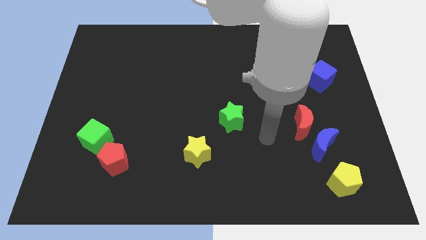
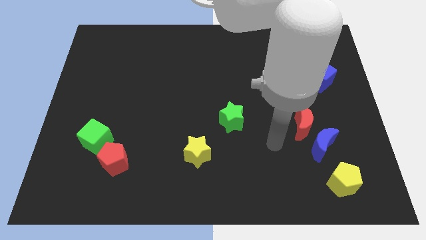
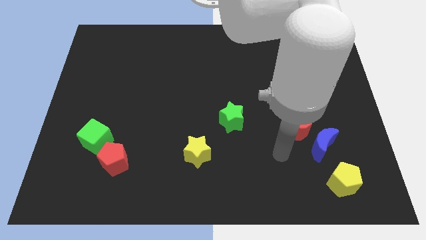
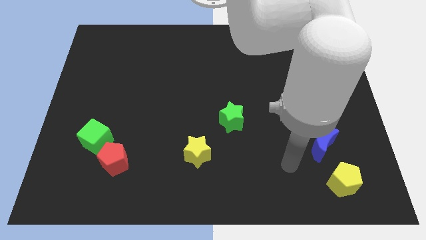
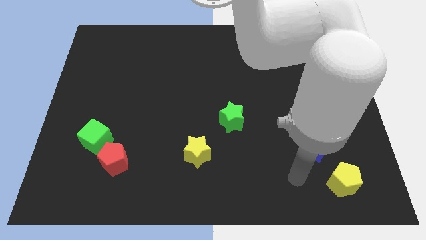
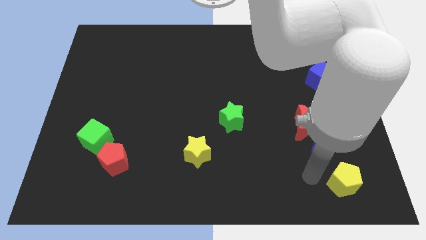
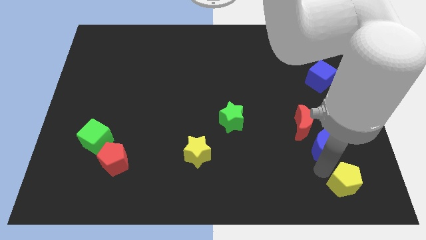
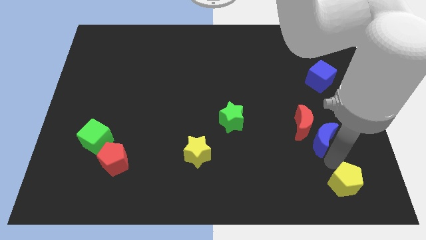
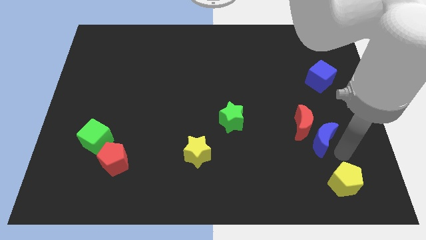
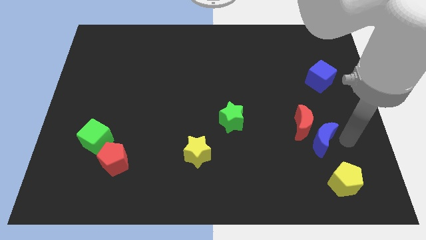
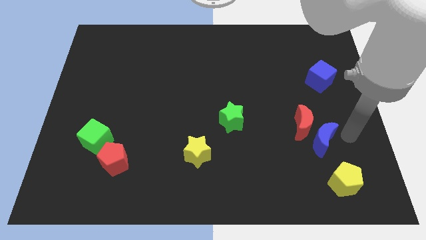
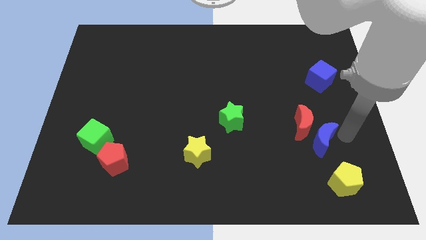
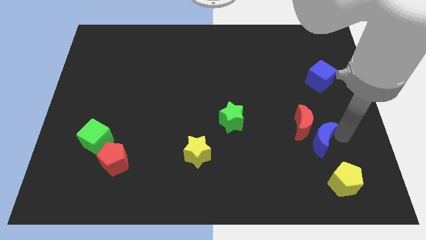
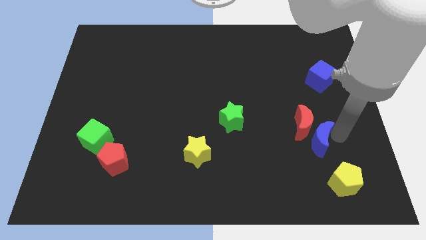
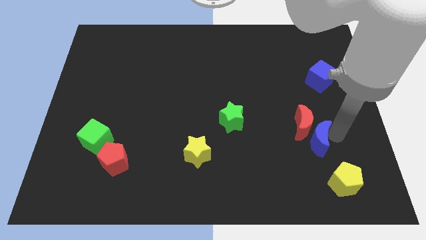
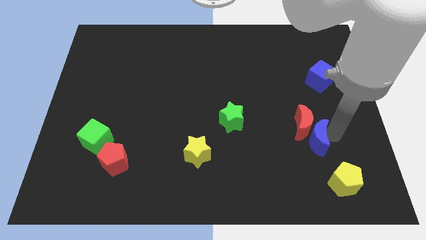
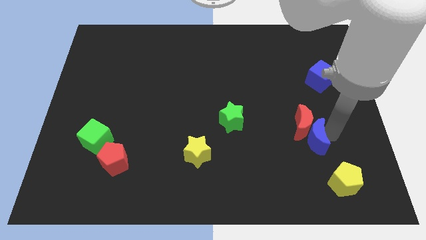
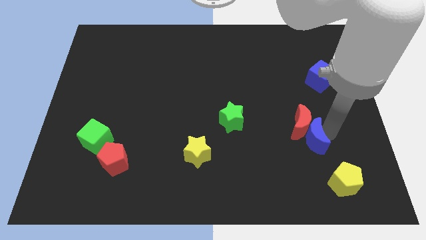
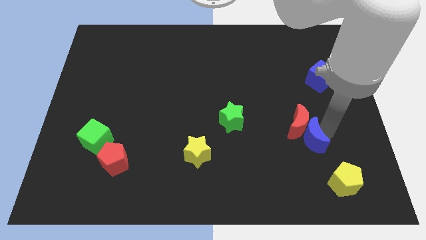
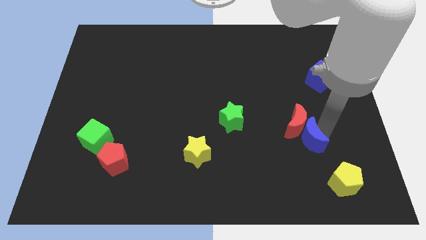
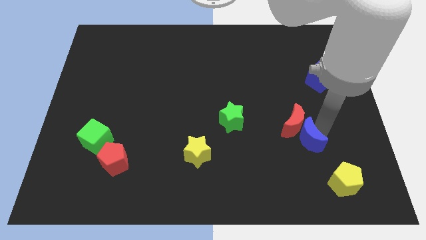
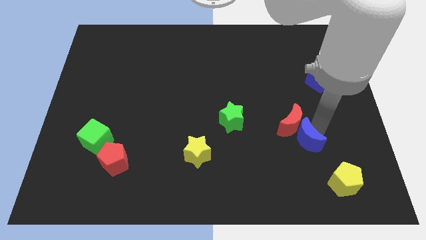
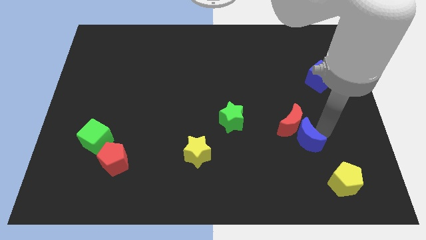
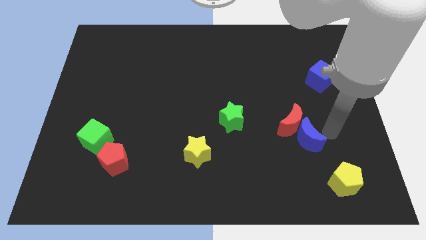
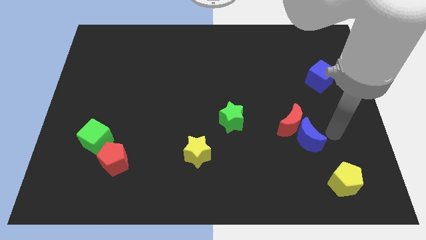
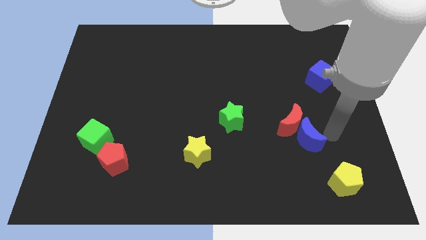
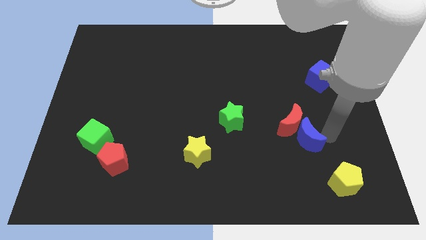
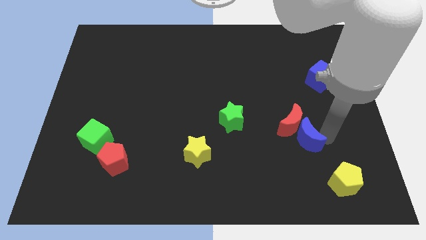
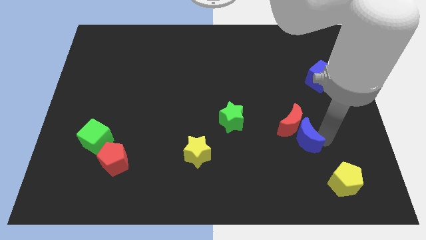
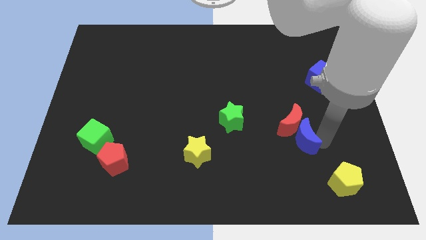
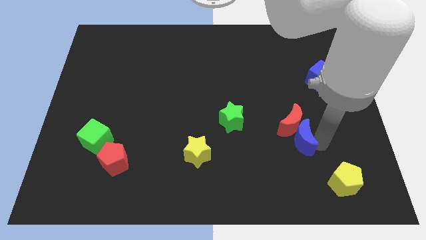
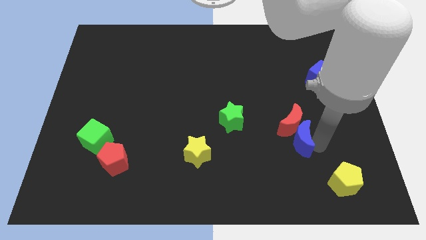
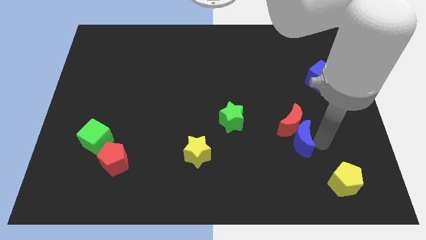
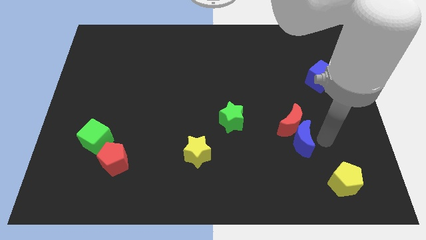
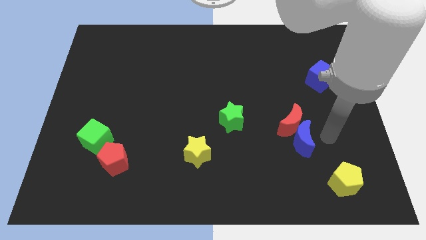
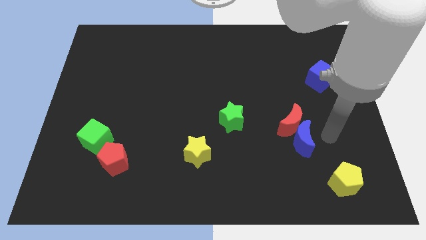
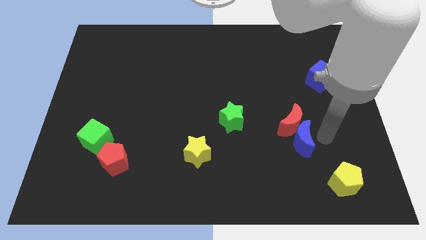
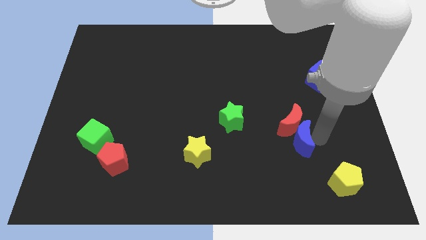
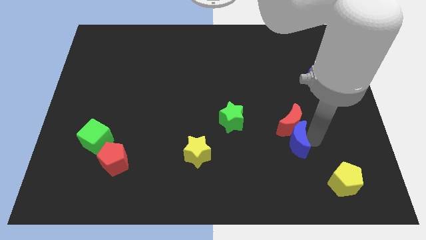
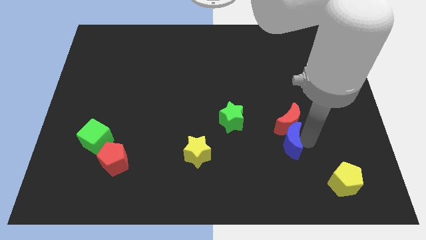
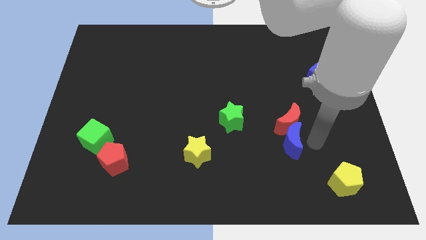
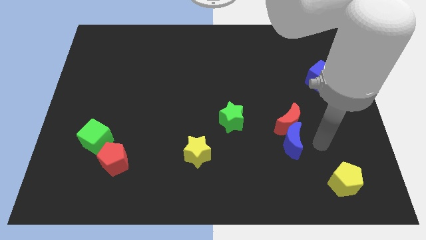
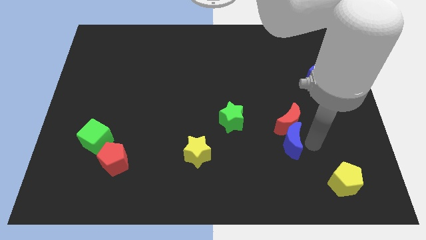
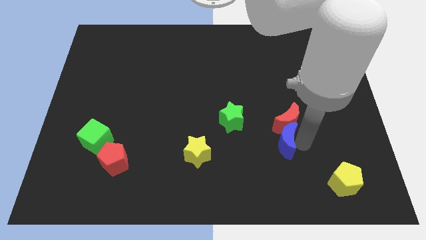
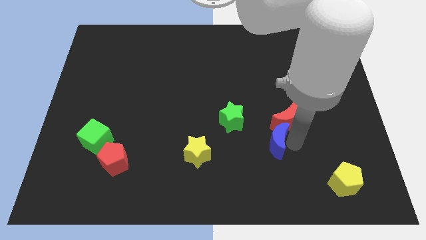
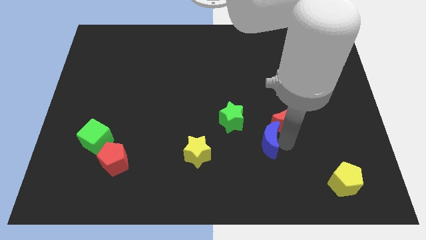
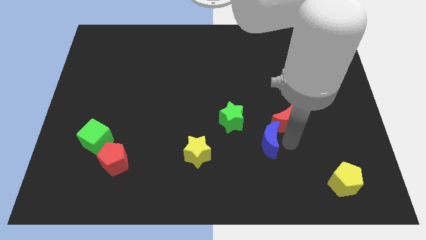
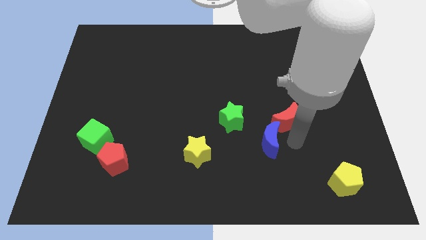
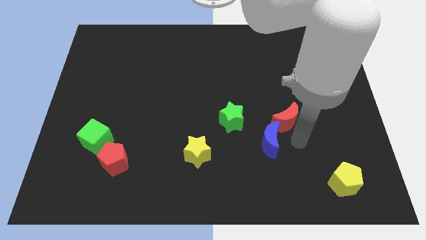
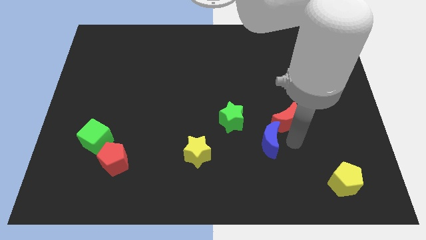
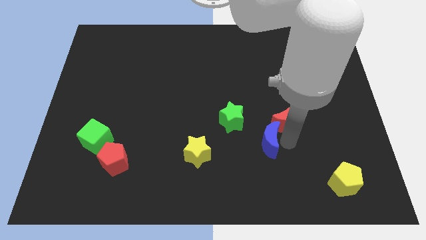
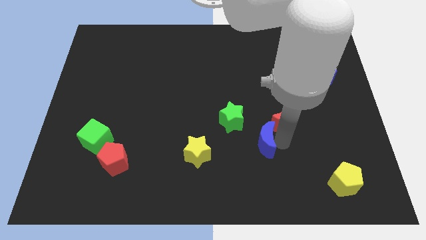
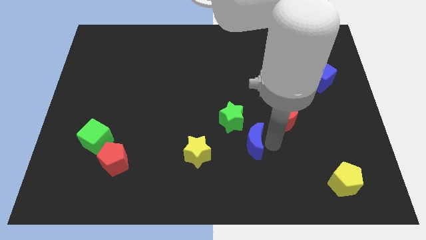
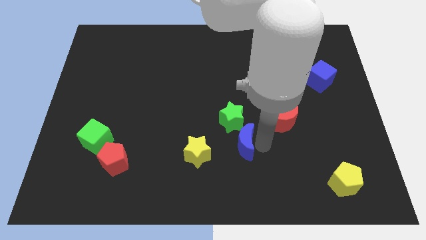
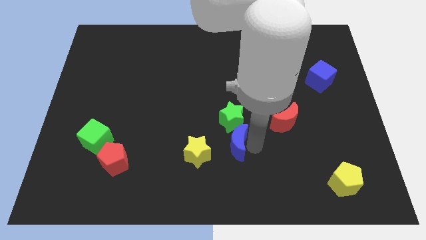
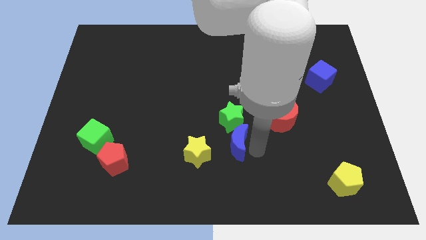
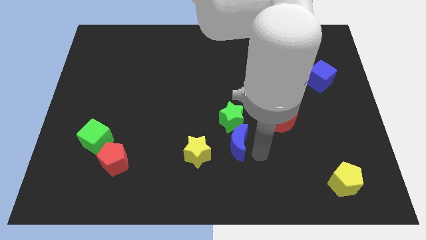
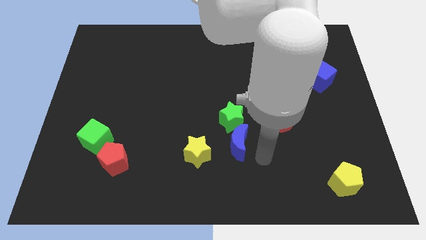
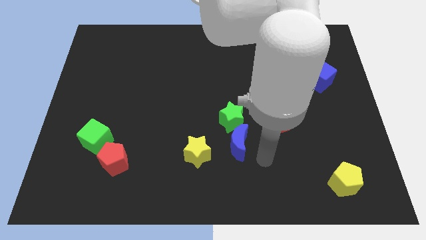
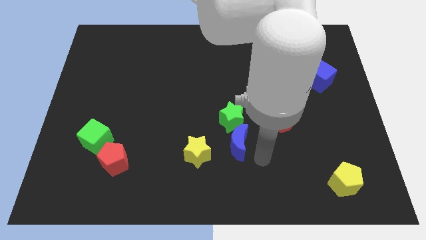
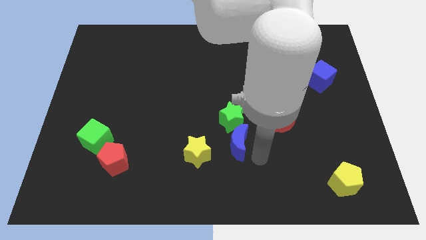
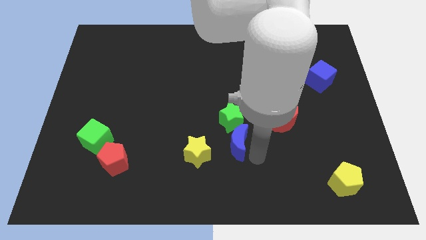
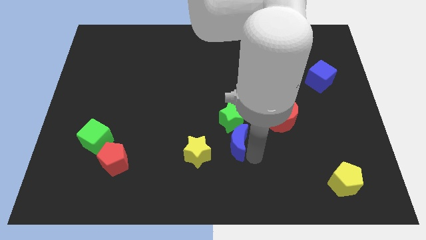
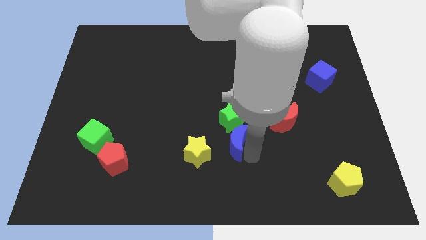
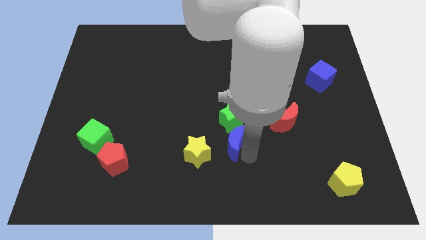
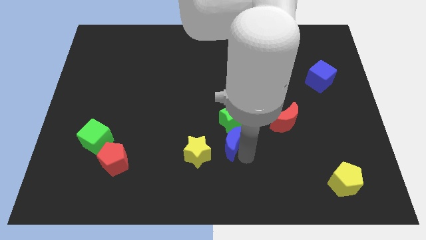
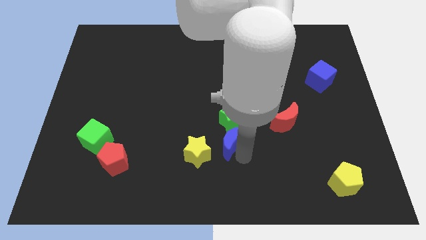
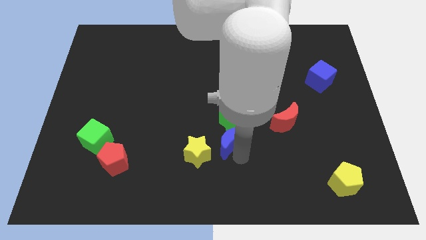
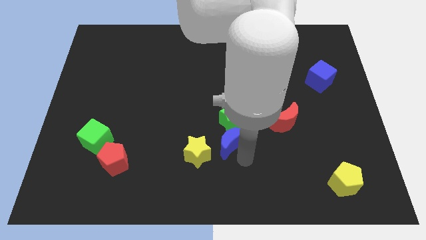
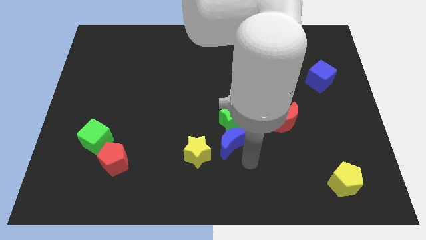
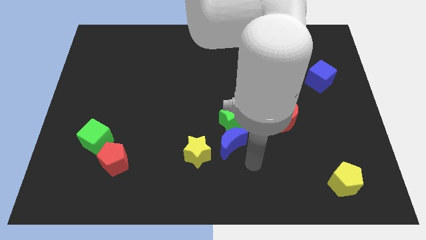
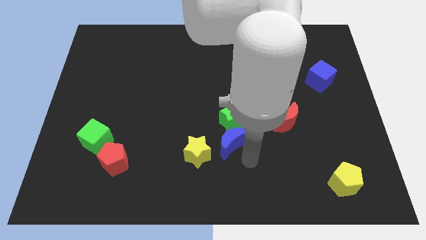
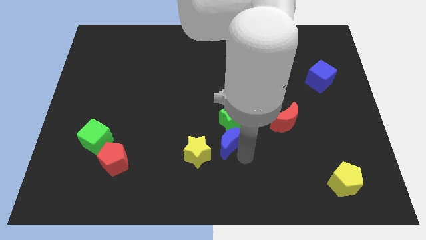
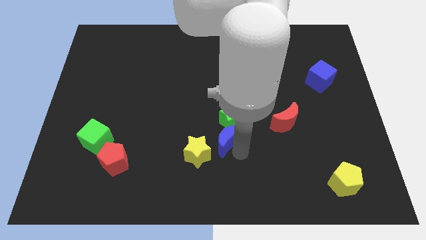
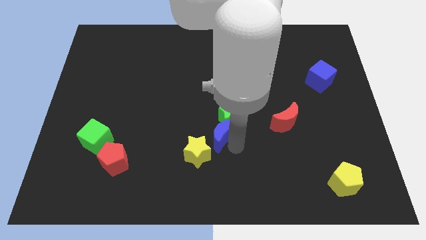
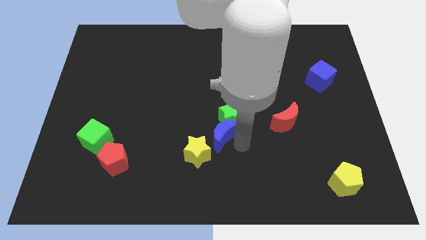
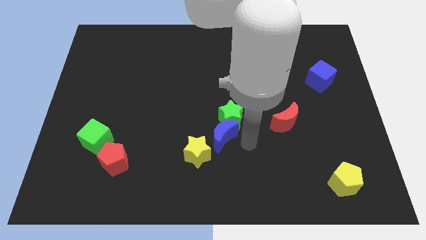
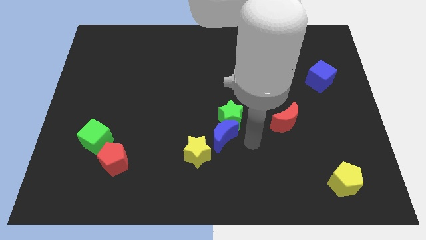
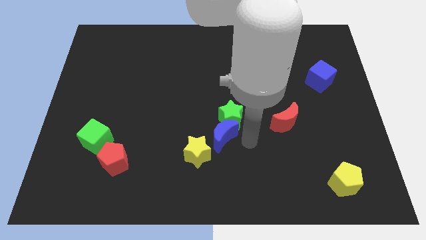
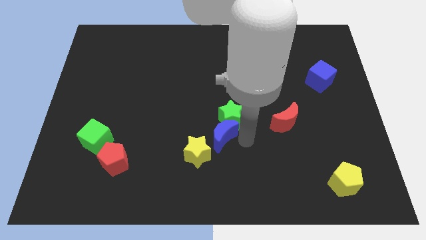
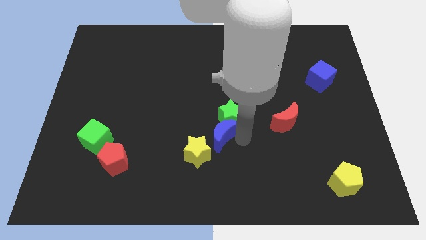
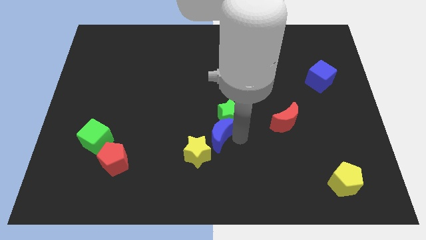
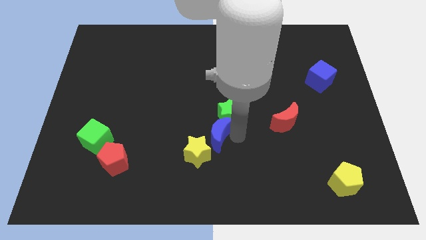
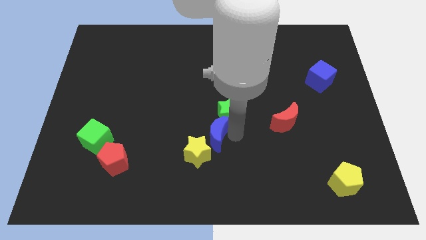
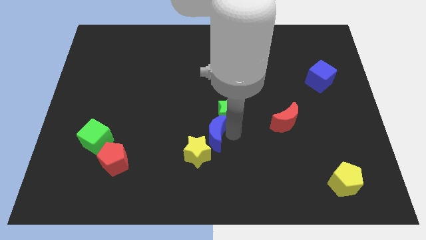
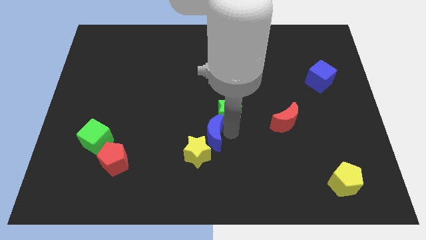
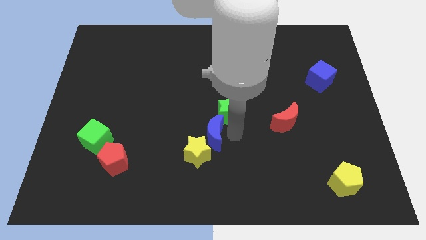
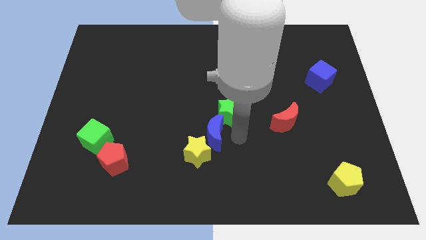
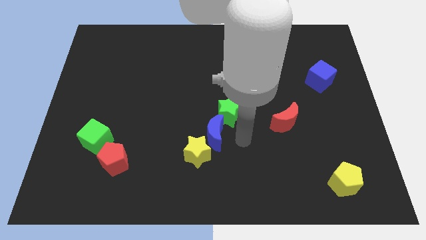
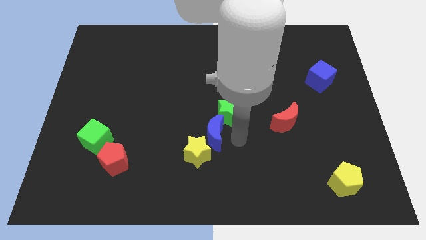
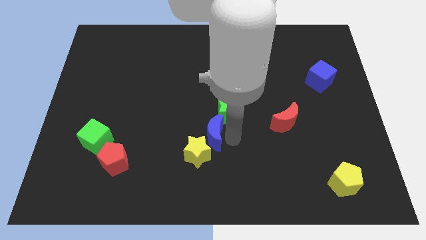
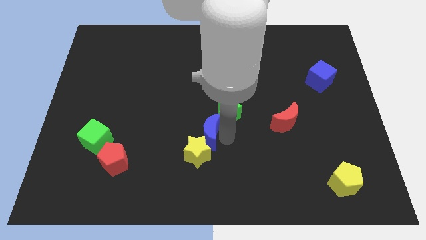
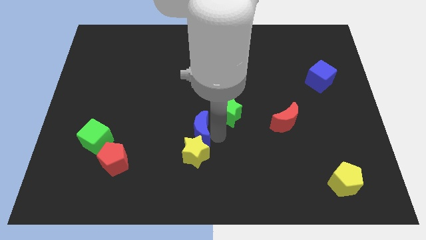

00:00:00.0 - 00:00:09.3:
move the blue moon to the top left side of the yellow star
